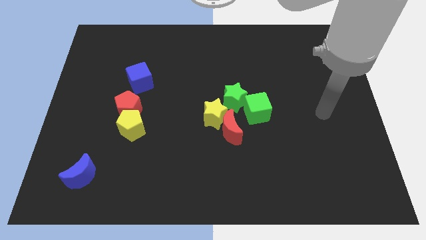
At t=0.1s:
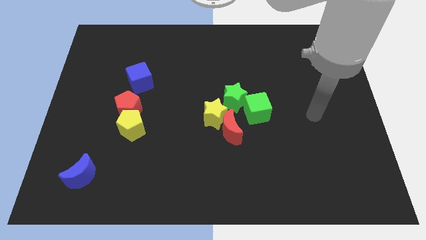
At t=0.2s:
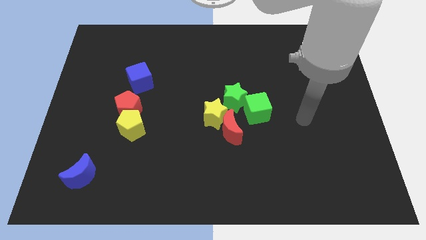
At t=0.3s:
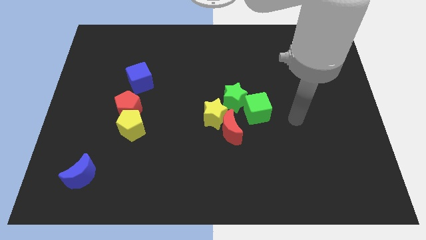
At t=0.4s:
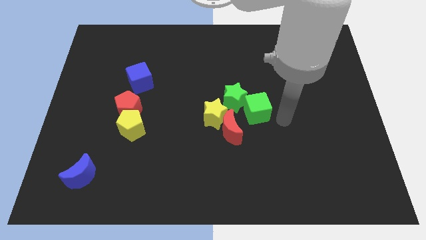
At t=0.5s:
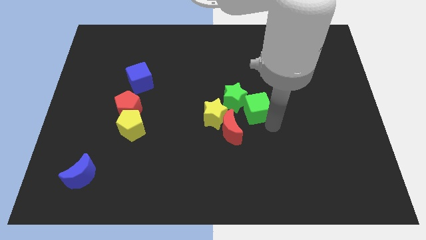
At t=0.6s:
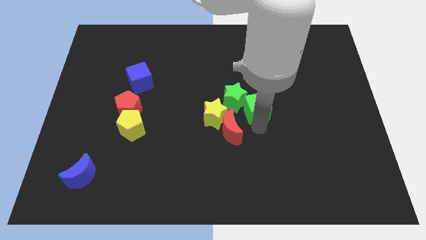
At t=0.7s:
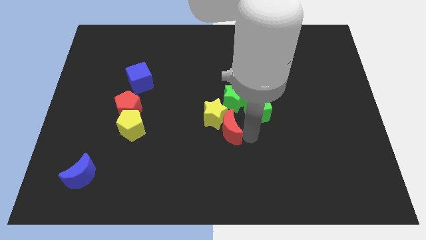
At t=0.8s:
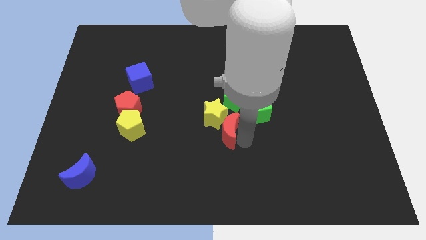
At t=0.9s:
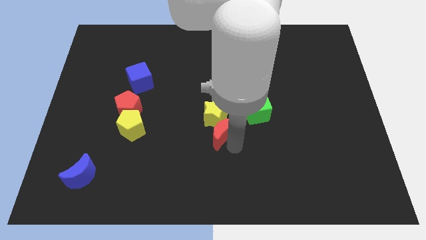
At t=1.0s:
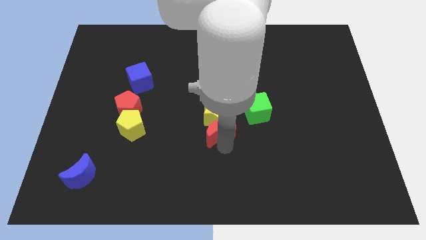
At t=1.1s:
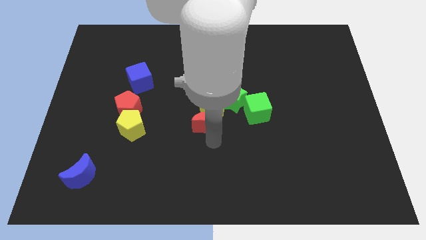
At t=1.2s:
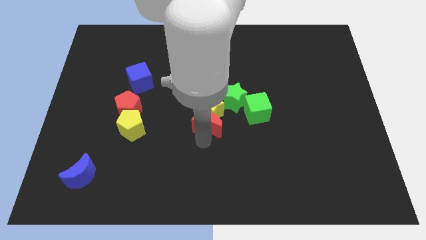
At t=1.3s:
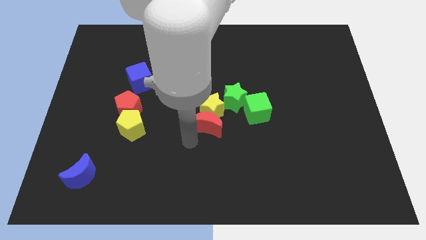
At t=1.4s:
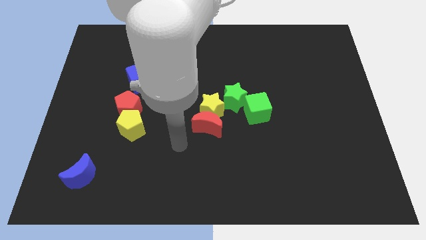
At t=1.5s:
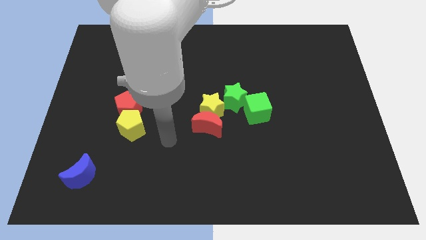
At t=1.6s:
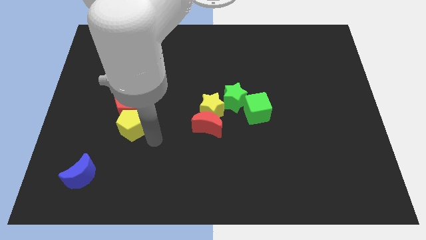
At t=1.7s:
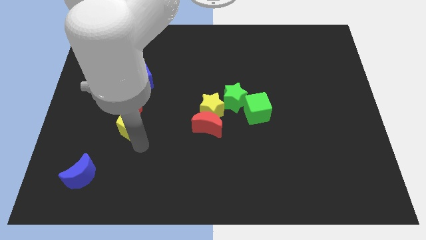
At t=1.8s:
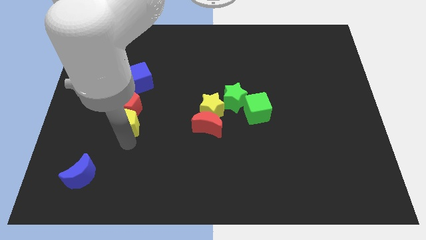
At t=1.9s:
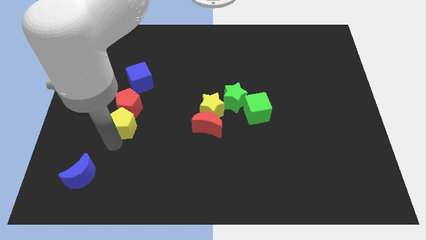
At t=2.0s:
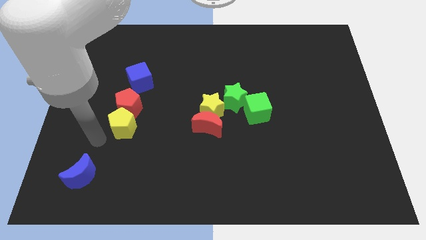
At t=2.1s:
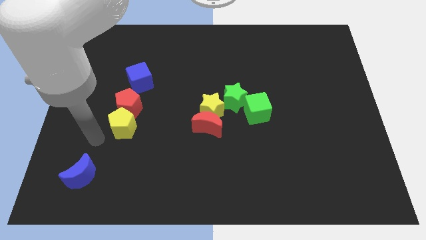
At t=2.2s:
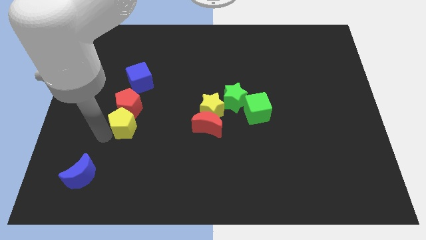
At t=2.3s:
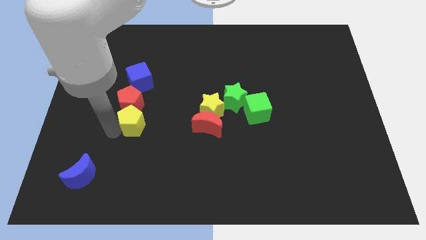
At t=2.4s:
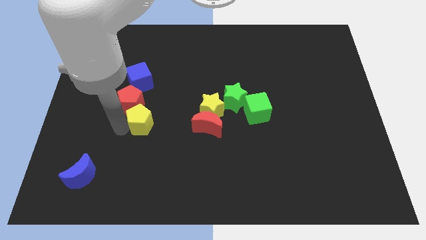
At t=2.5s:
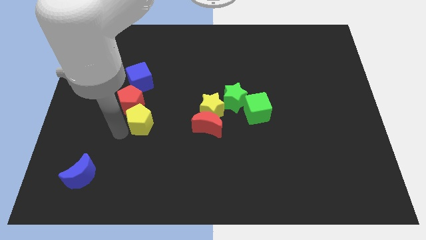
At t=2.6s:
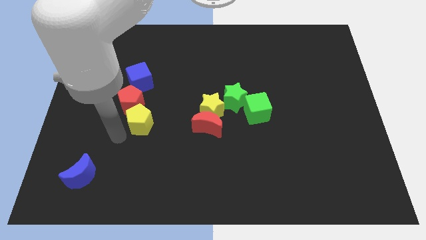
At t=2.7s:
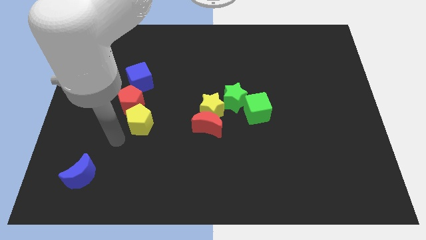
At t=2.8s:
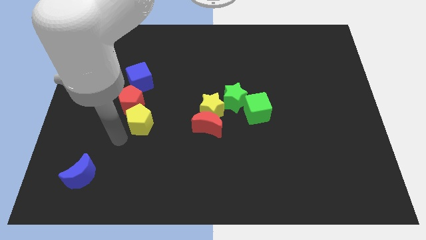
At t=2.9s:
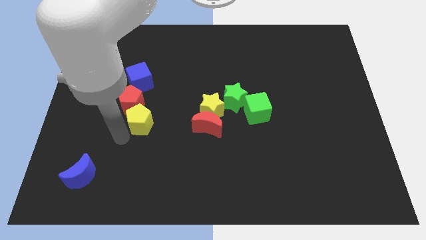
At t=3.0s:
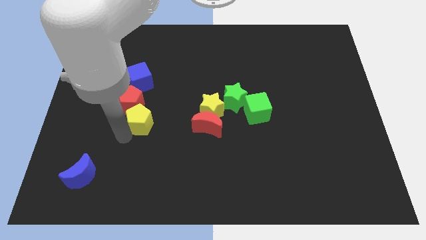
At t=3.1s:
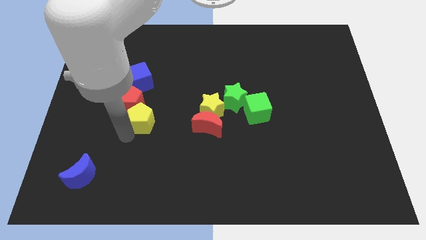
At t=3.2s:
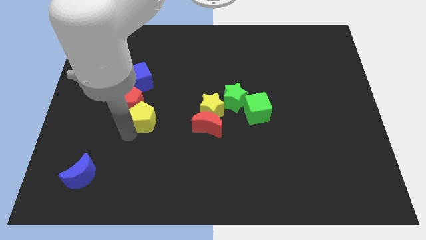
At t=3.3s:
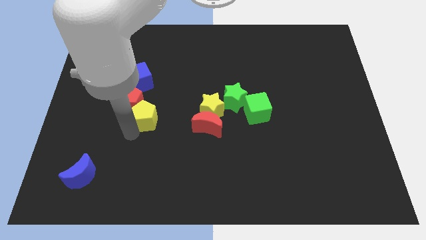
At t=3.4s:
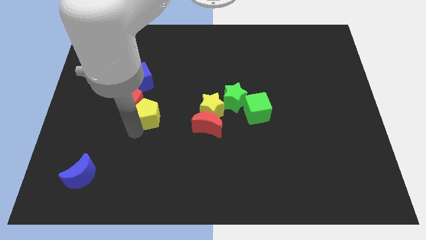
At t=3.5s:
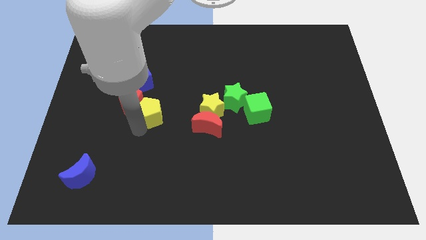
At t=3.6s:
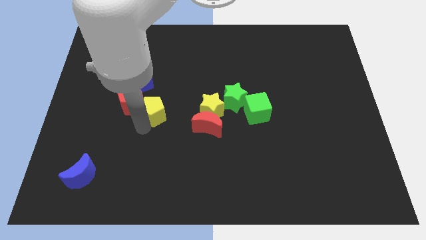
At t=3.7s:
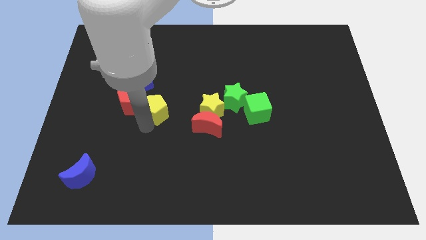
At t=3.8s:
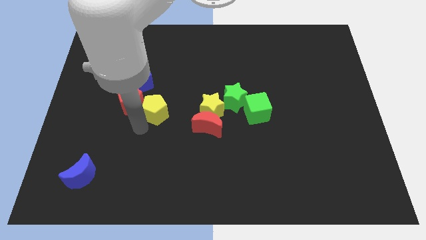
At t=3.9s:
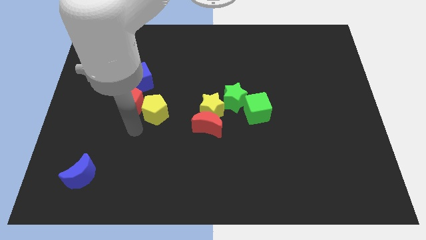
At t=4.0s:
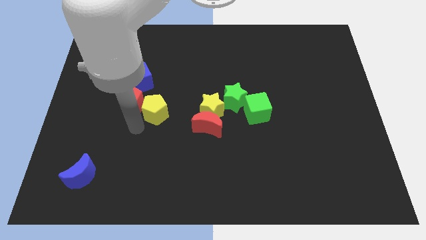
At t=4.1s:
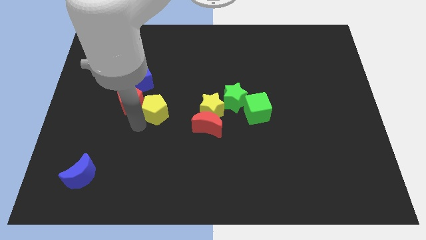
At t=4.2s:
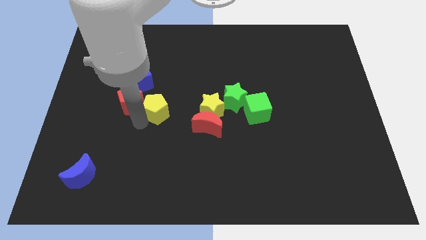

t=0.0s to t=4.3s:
slightly slide the yellow pentagon upwards and right diagonally

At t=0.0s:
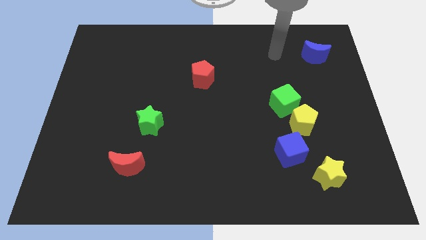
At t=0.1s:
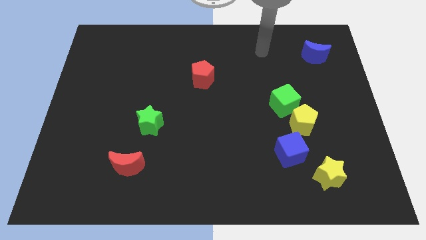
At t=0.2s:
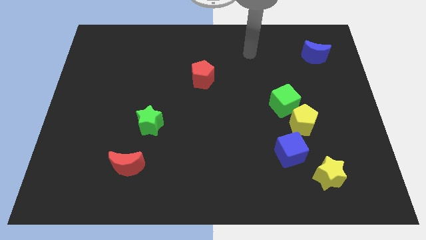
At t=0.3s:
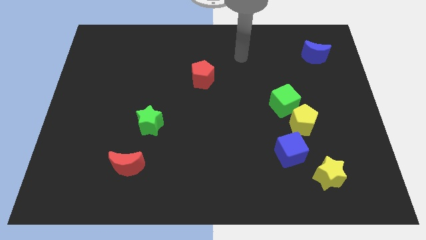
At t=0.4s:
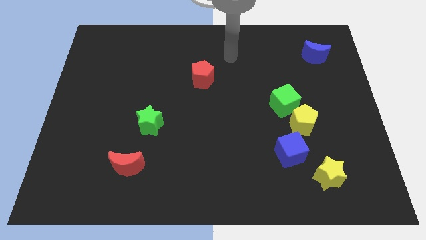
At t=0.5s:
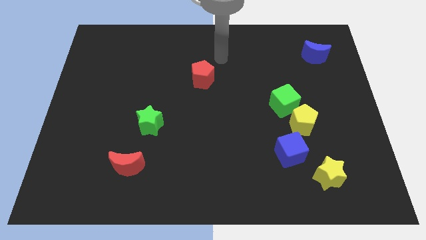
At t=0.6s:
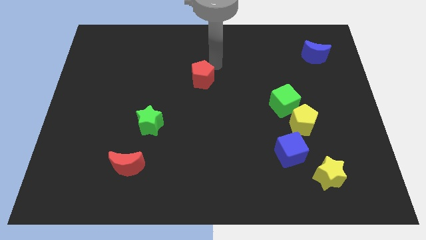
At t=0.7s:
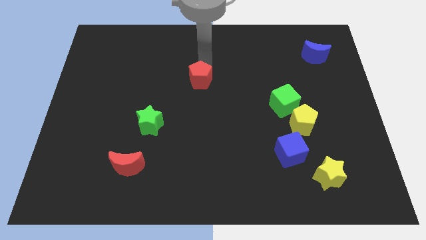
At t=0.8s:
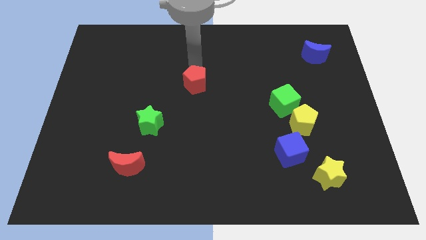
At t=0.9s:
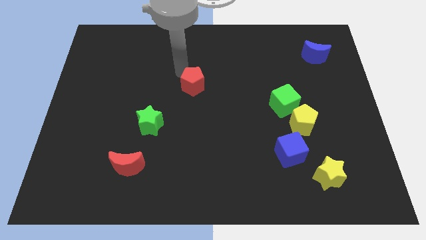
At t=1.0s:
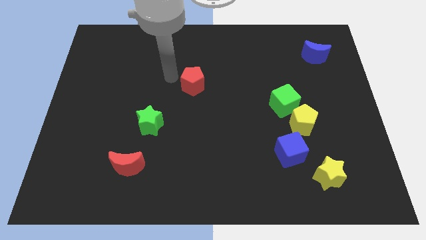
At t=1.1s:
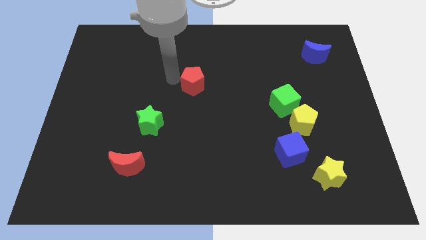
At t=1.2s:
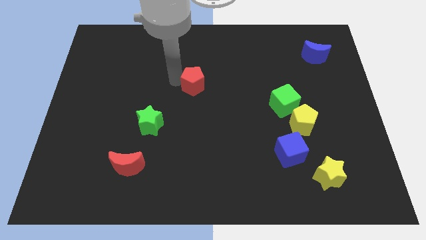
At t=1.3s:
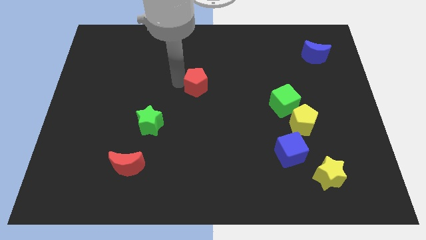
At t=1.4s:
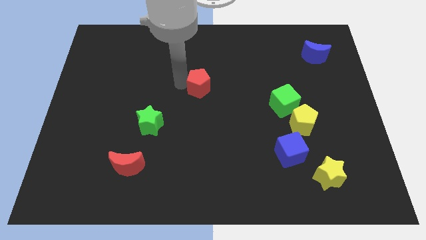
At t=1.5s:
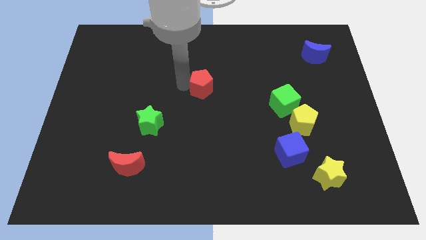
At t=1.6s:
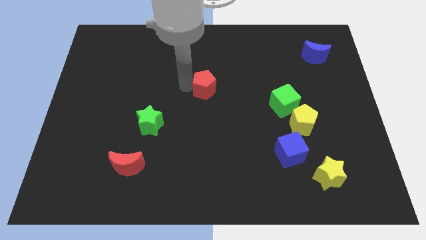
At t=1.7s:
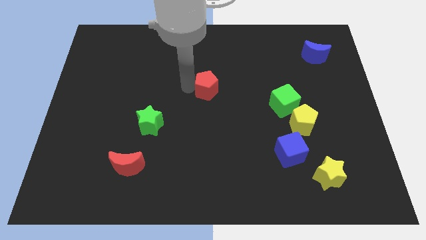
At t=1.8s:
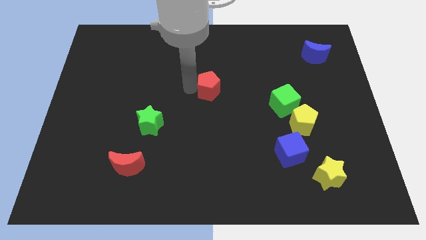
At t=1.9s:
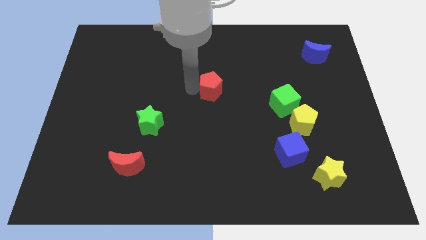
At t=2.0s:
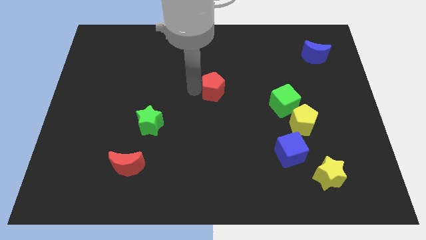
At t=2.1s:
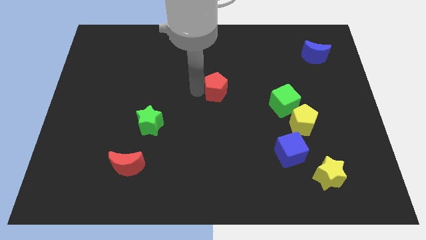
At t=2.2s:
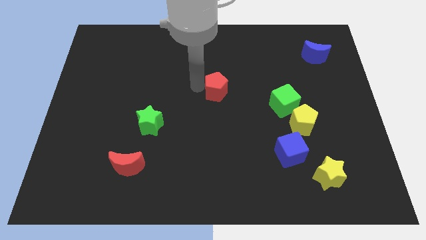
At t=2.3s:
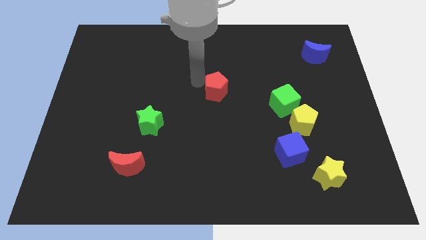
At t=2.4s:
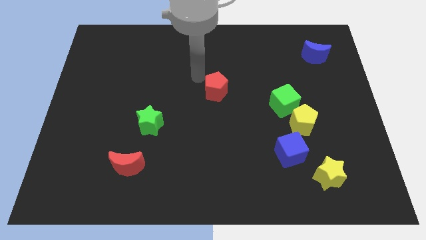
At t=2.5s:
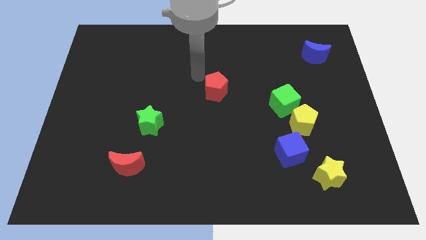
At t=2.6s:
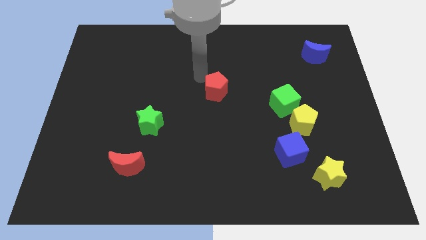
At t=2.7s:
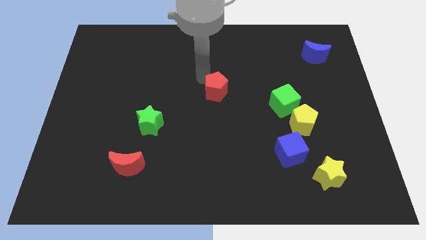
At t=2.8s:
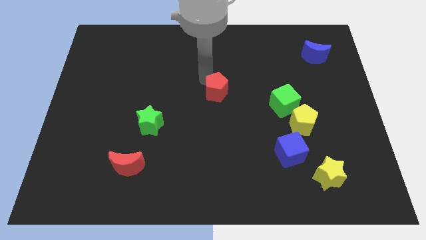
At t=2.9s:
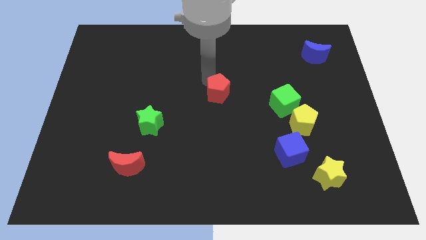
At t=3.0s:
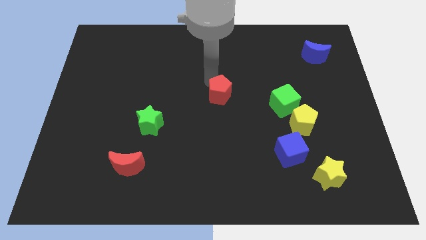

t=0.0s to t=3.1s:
push the red pentagon a little bit downwards and right diagonally

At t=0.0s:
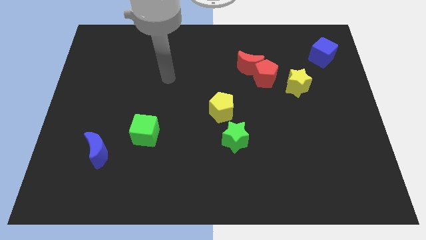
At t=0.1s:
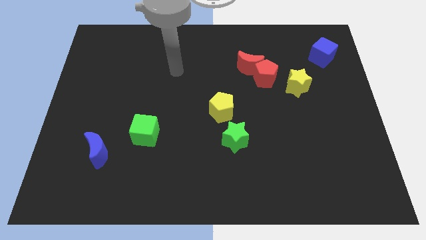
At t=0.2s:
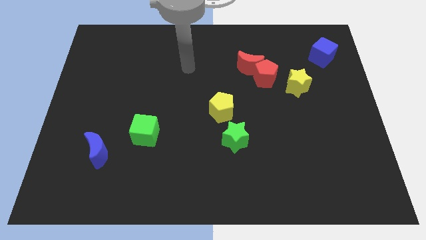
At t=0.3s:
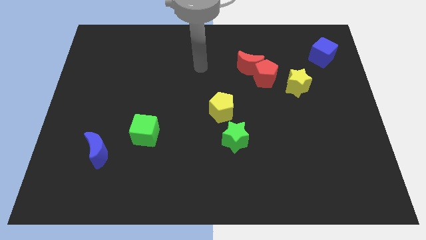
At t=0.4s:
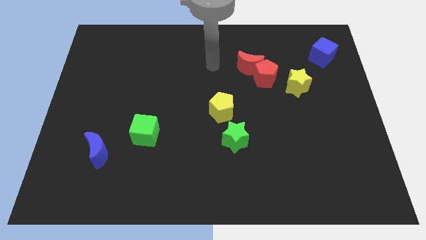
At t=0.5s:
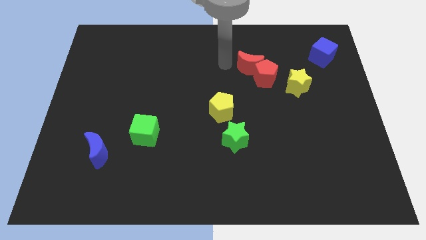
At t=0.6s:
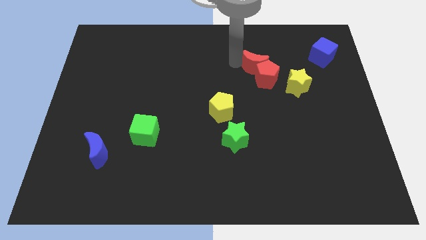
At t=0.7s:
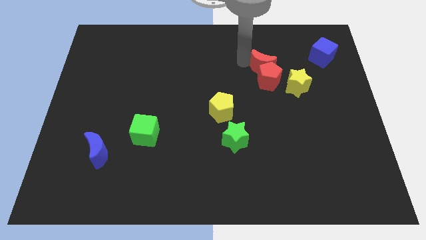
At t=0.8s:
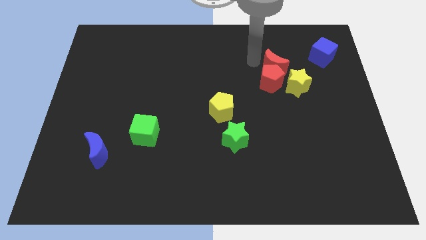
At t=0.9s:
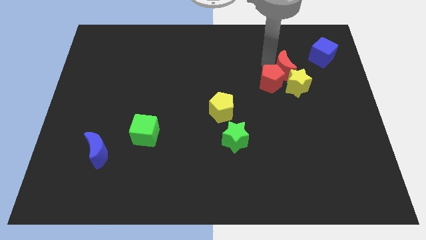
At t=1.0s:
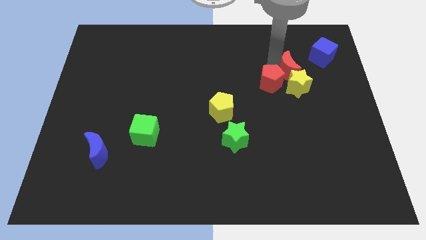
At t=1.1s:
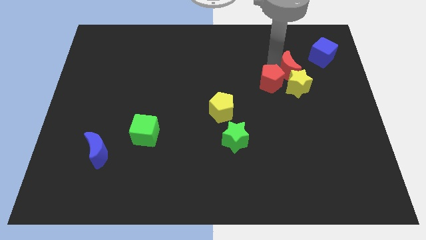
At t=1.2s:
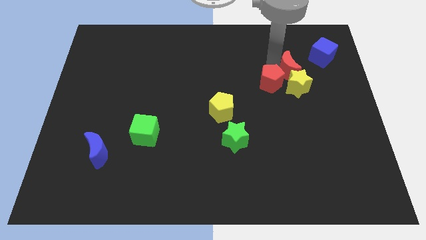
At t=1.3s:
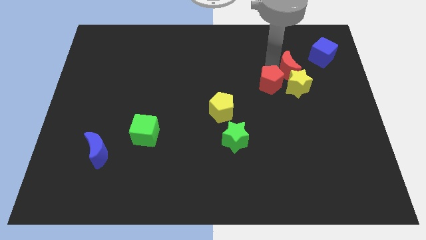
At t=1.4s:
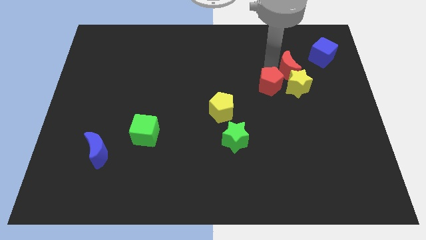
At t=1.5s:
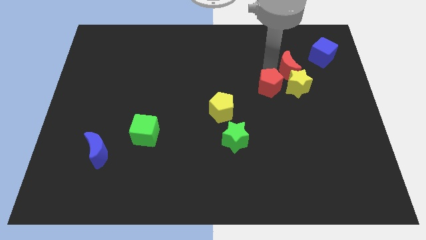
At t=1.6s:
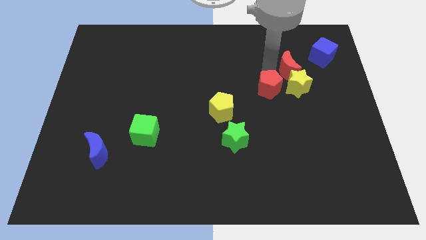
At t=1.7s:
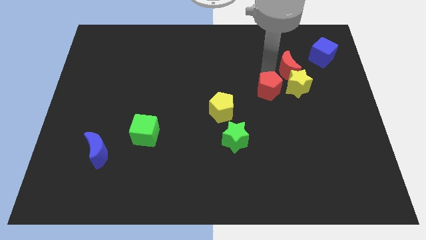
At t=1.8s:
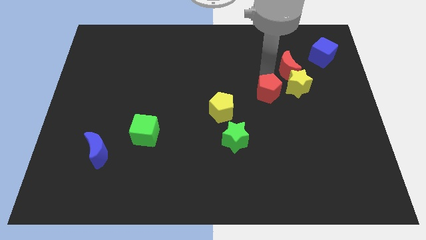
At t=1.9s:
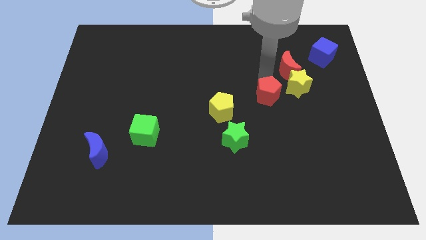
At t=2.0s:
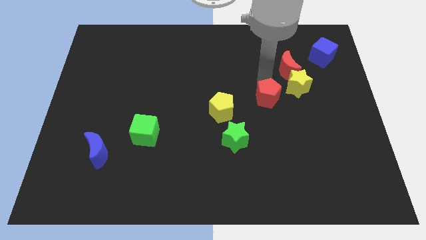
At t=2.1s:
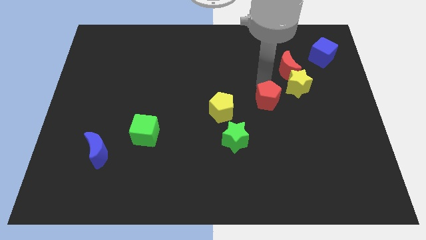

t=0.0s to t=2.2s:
slide the red pentagon somewhat down
